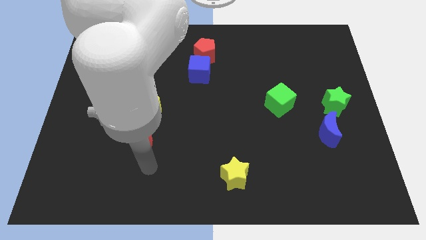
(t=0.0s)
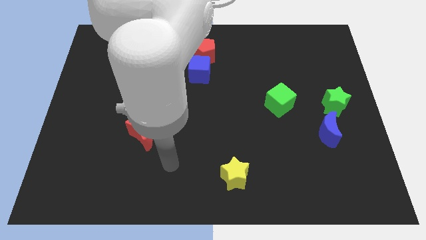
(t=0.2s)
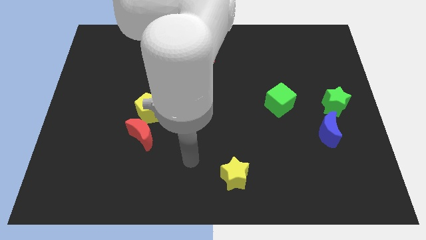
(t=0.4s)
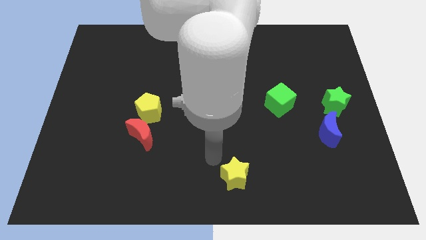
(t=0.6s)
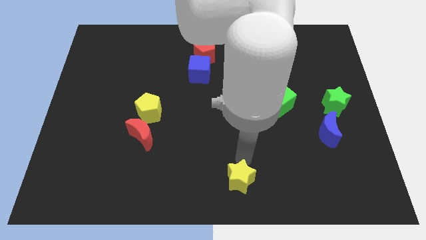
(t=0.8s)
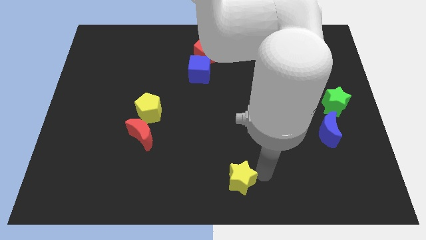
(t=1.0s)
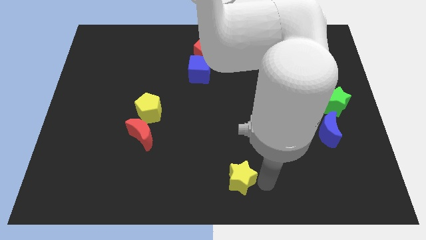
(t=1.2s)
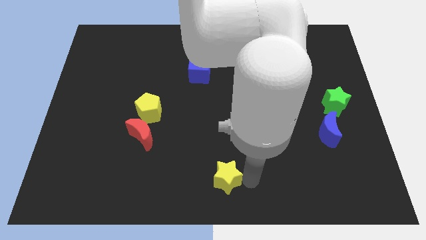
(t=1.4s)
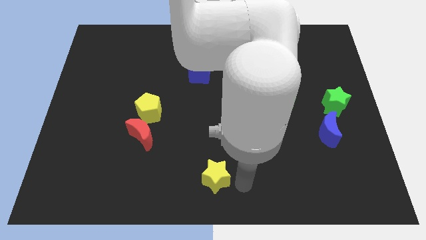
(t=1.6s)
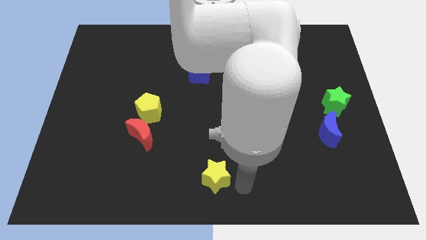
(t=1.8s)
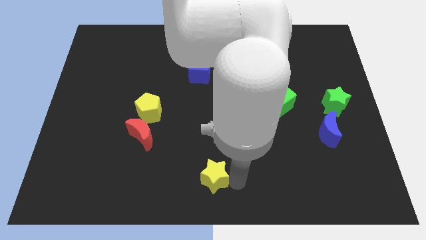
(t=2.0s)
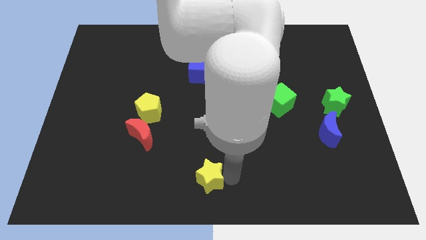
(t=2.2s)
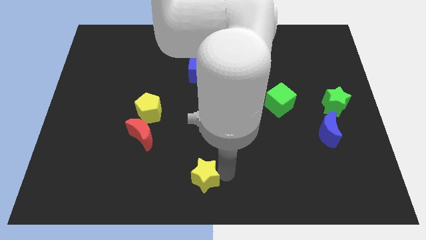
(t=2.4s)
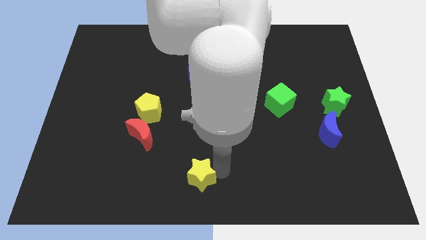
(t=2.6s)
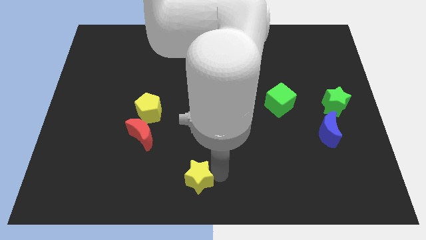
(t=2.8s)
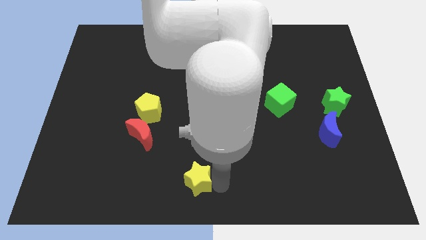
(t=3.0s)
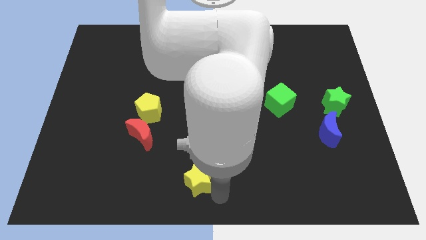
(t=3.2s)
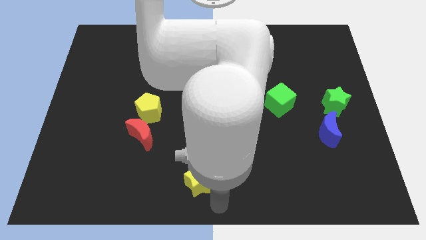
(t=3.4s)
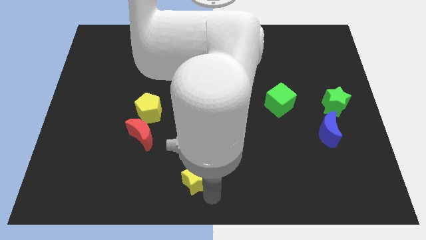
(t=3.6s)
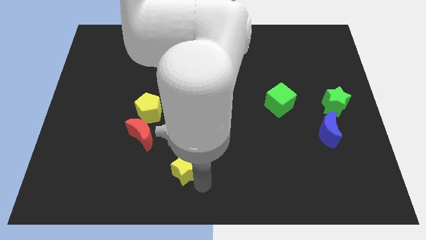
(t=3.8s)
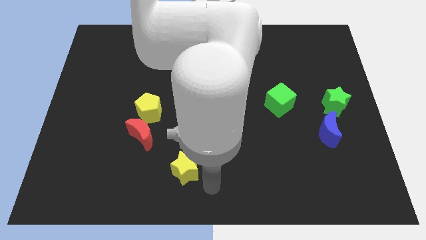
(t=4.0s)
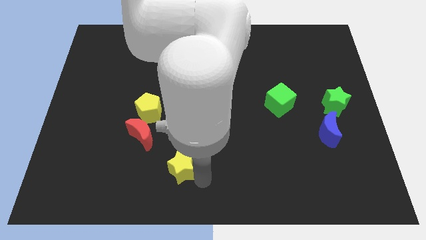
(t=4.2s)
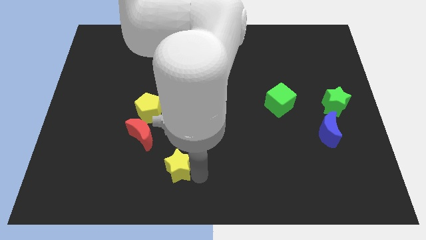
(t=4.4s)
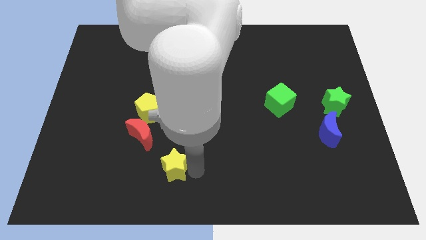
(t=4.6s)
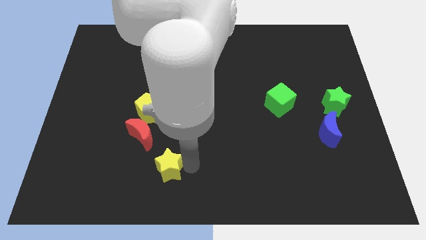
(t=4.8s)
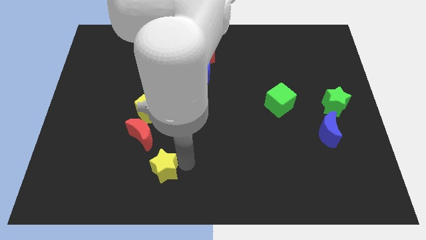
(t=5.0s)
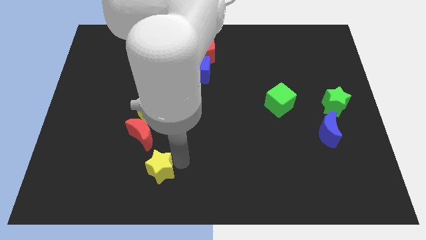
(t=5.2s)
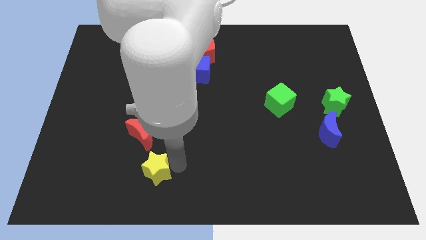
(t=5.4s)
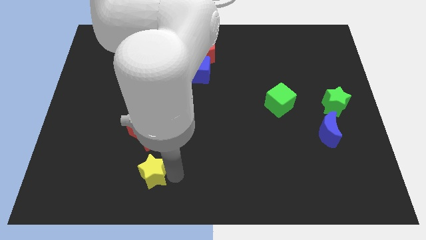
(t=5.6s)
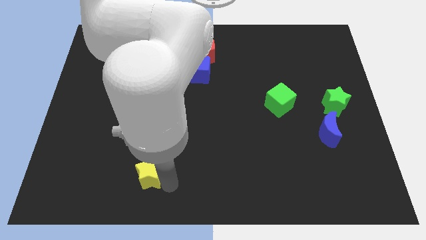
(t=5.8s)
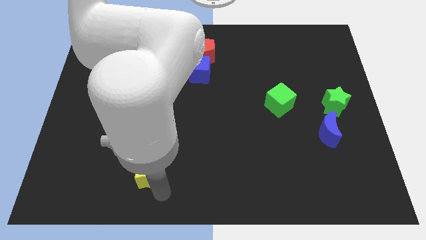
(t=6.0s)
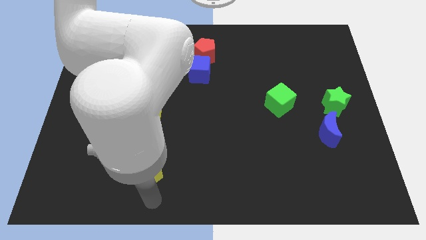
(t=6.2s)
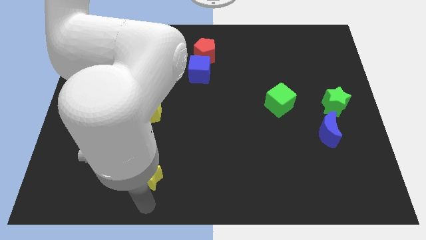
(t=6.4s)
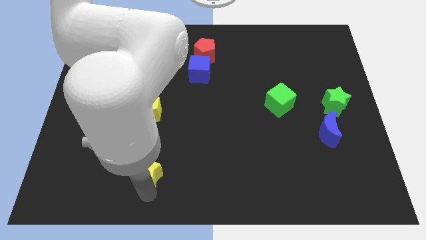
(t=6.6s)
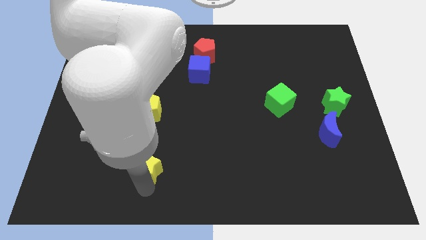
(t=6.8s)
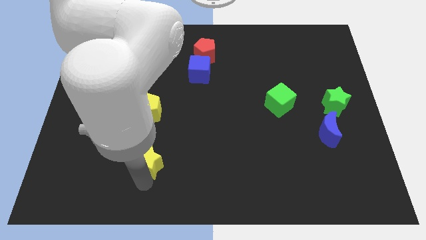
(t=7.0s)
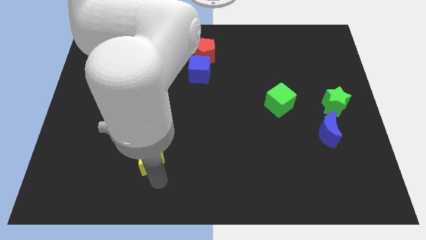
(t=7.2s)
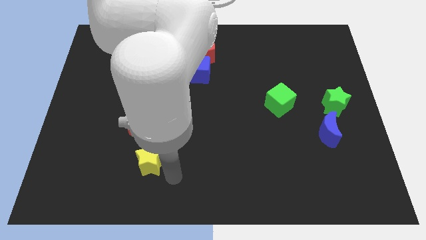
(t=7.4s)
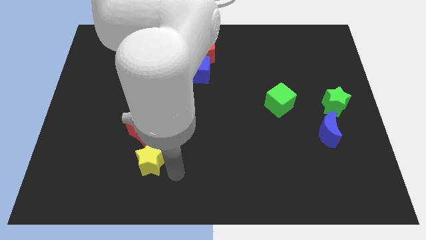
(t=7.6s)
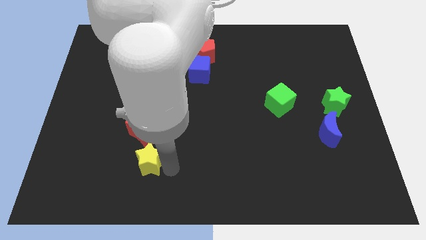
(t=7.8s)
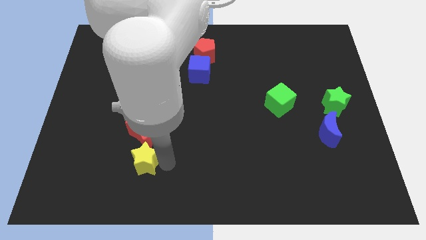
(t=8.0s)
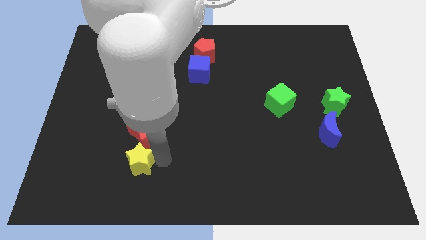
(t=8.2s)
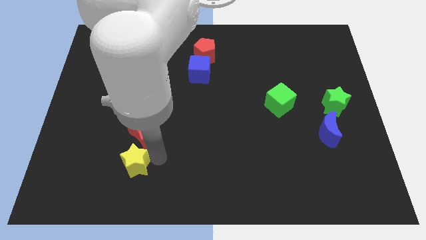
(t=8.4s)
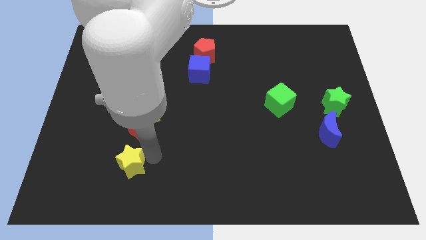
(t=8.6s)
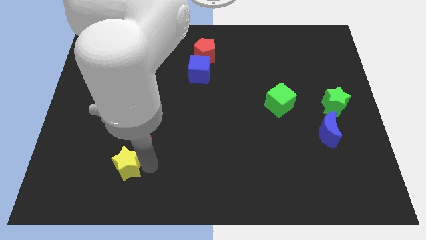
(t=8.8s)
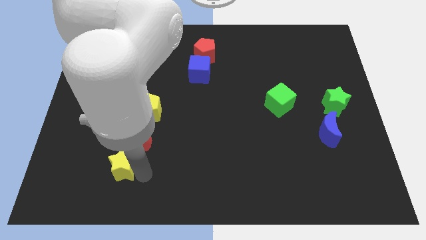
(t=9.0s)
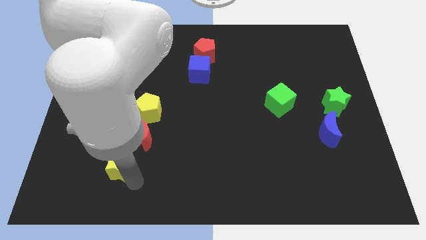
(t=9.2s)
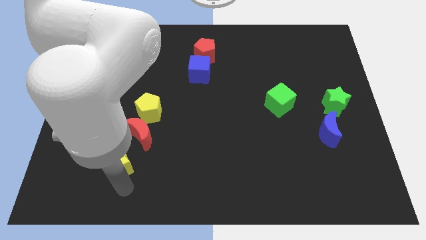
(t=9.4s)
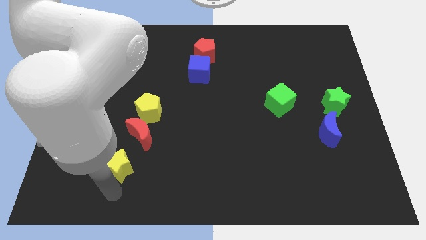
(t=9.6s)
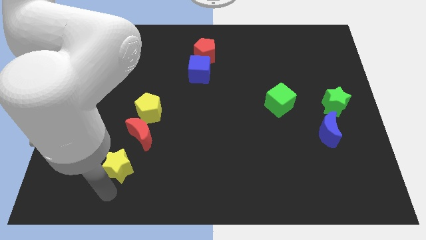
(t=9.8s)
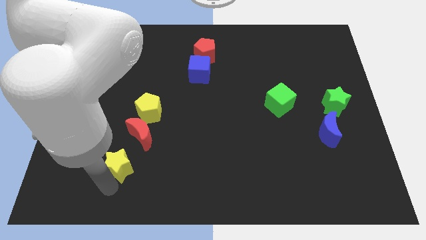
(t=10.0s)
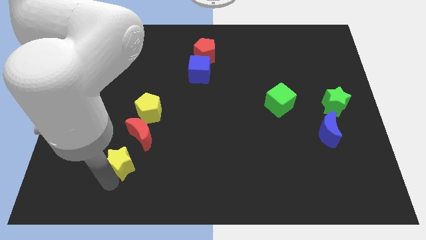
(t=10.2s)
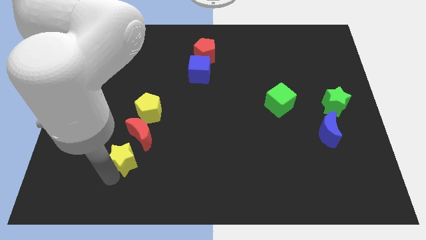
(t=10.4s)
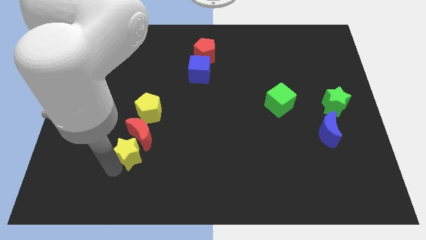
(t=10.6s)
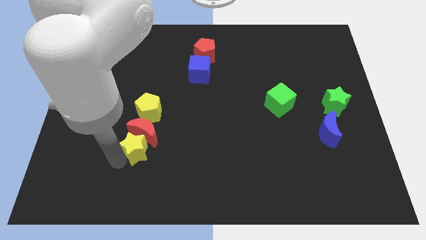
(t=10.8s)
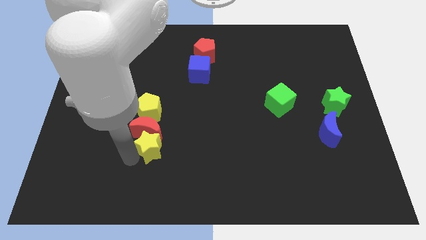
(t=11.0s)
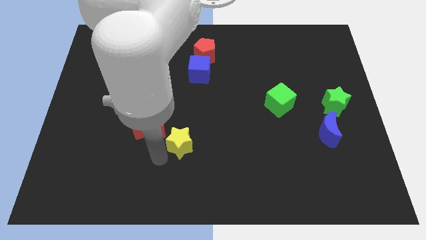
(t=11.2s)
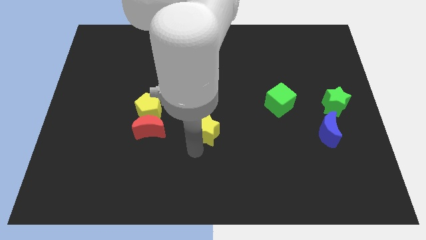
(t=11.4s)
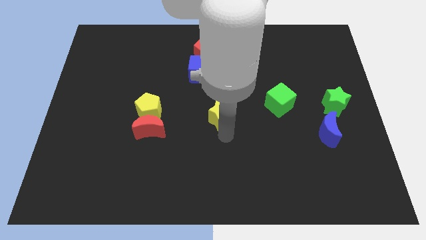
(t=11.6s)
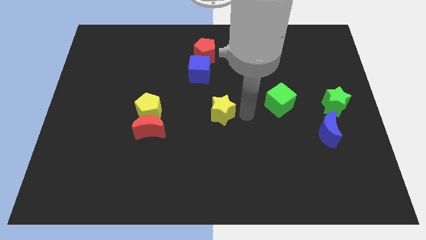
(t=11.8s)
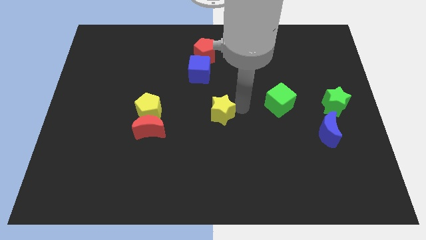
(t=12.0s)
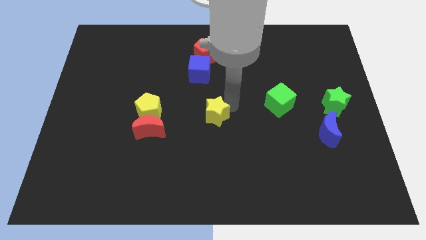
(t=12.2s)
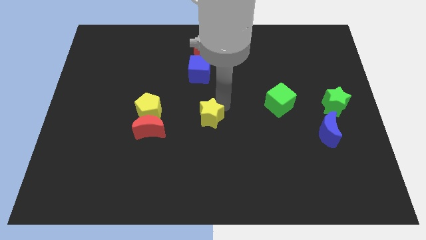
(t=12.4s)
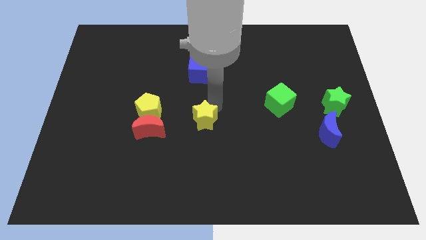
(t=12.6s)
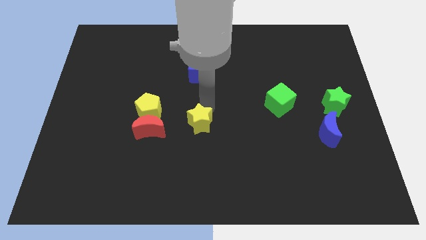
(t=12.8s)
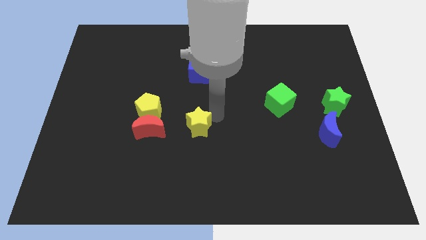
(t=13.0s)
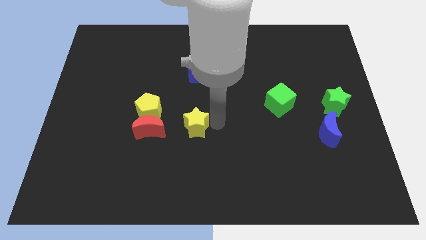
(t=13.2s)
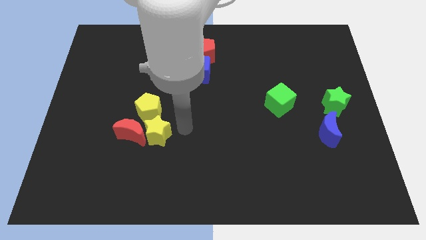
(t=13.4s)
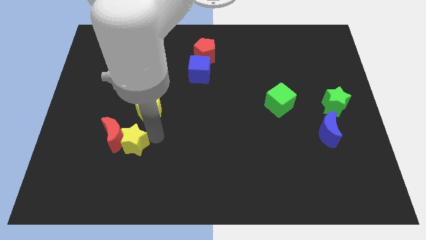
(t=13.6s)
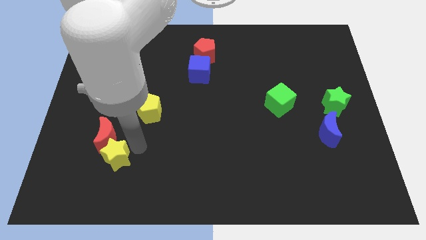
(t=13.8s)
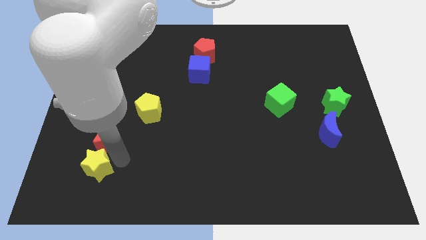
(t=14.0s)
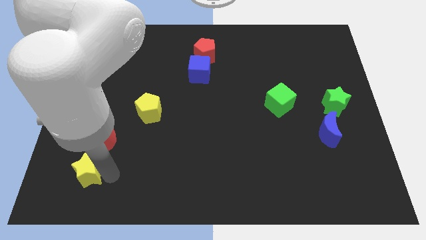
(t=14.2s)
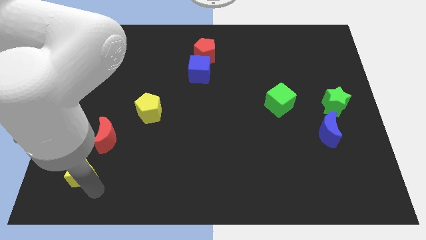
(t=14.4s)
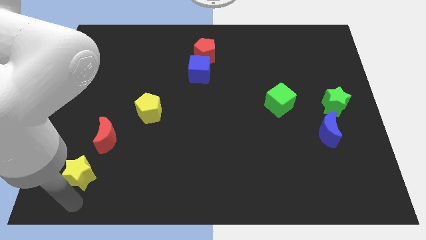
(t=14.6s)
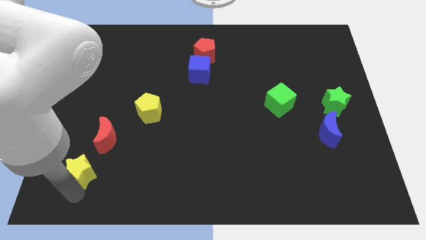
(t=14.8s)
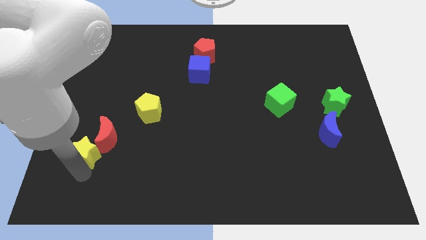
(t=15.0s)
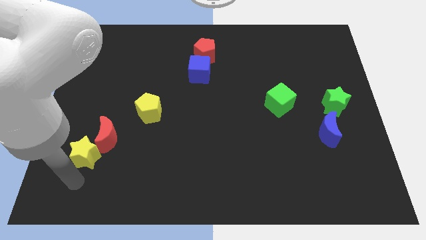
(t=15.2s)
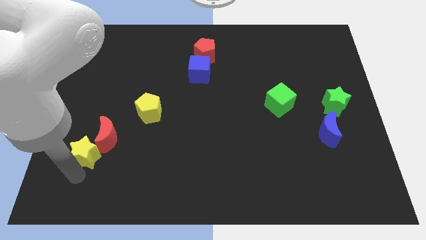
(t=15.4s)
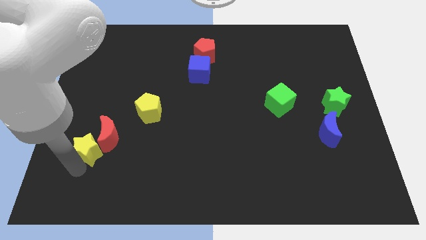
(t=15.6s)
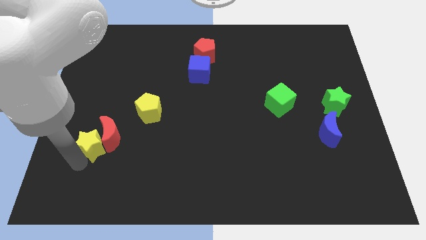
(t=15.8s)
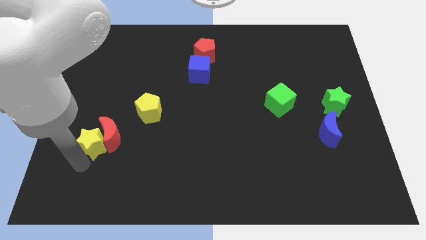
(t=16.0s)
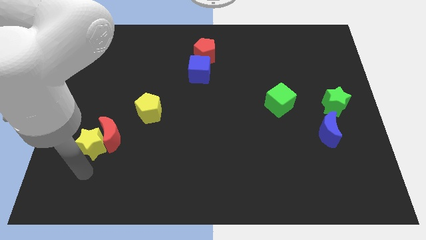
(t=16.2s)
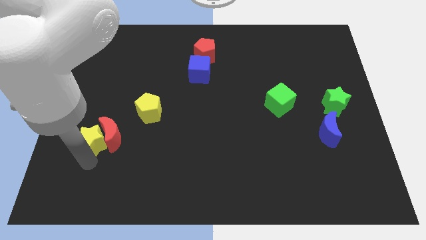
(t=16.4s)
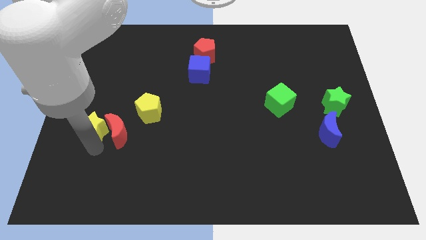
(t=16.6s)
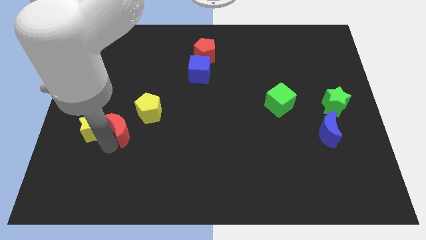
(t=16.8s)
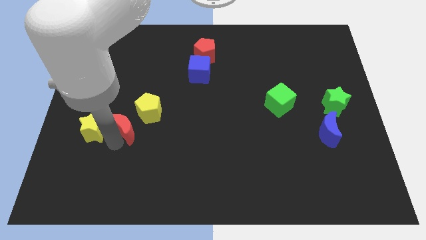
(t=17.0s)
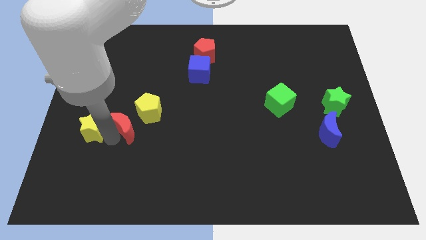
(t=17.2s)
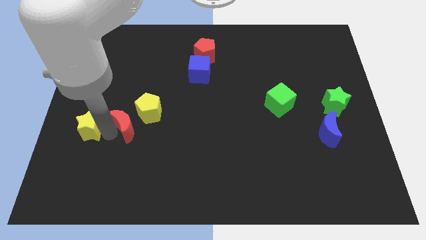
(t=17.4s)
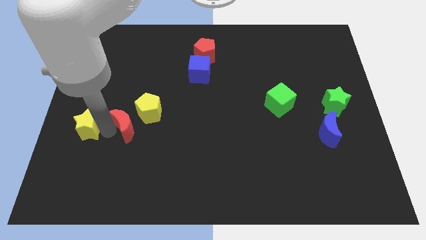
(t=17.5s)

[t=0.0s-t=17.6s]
slide the yellow star to the left side of the board
